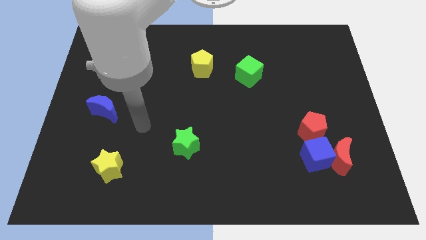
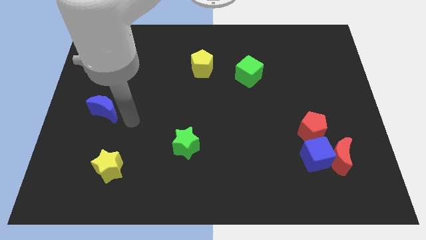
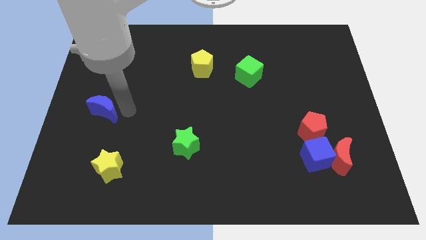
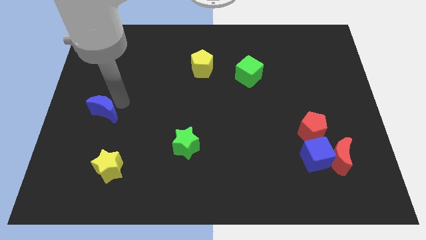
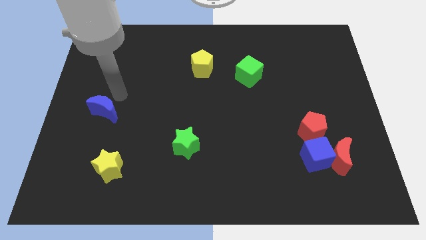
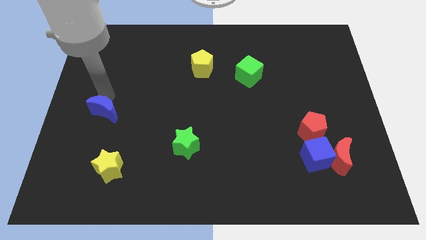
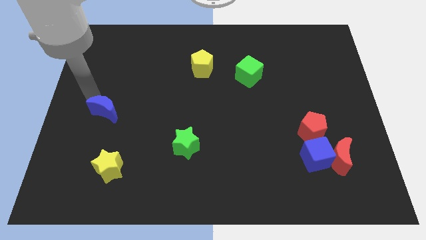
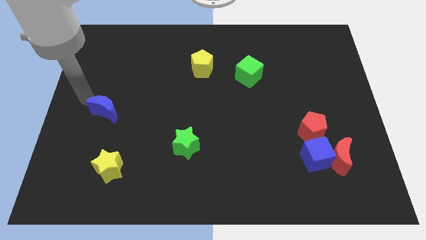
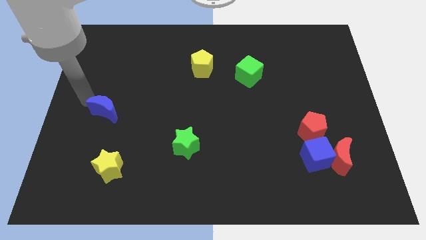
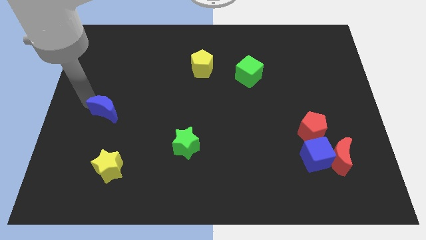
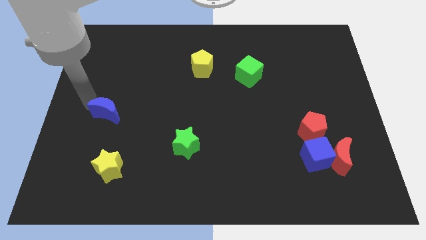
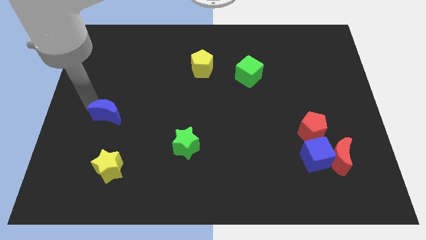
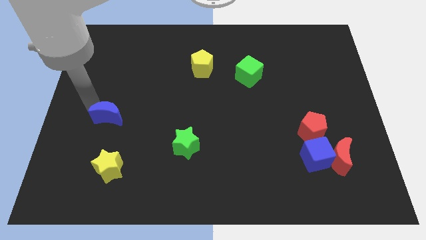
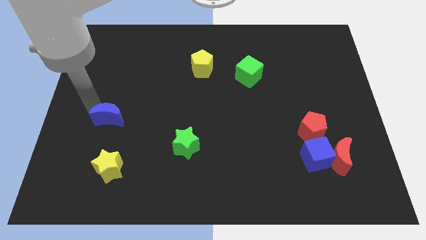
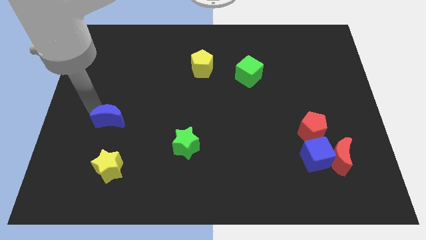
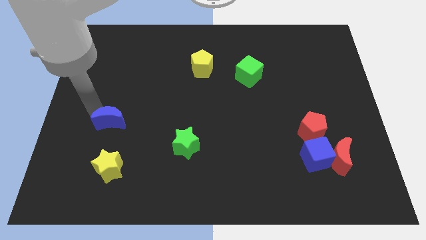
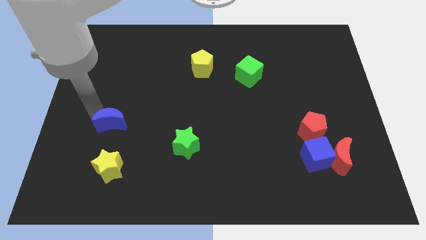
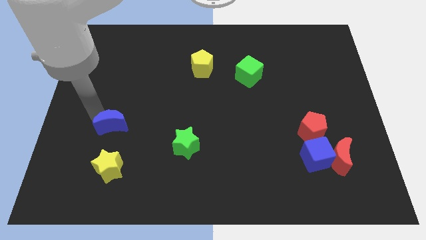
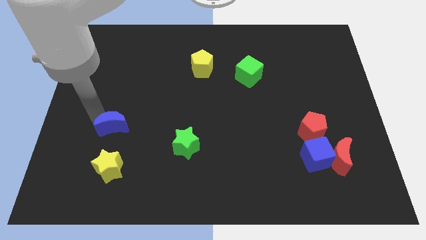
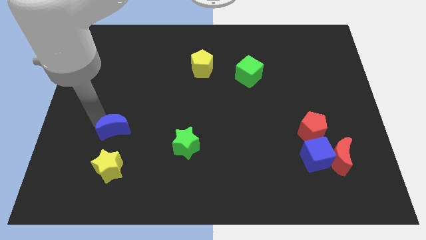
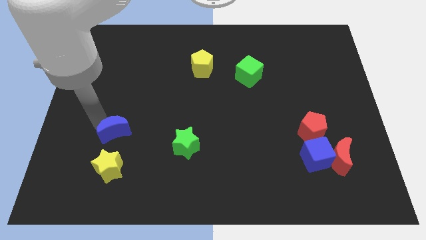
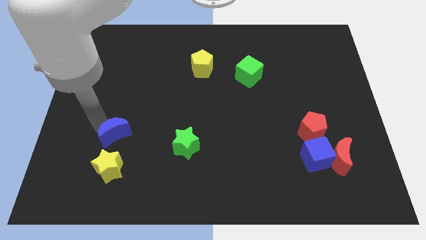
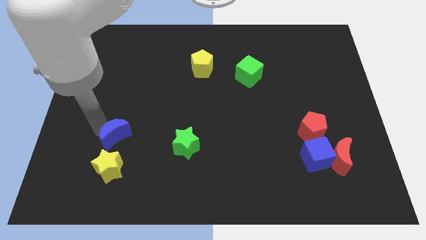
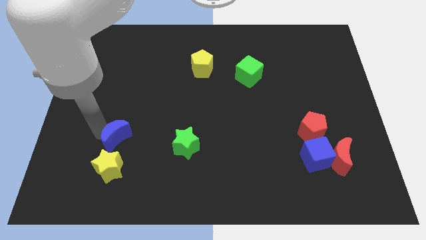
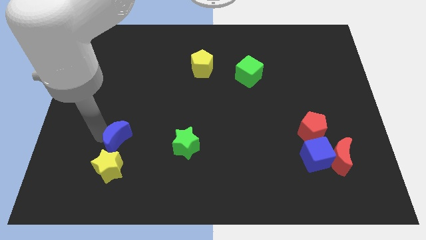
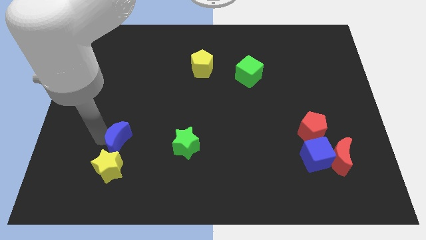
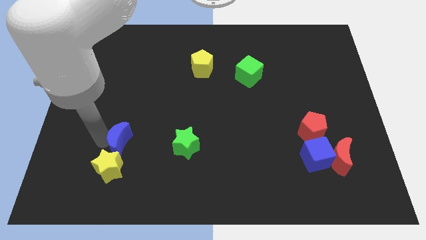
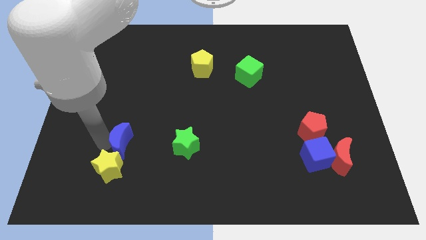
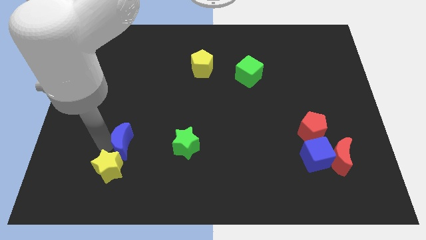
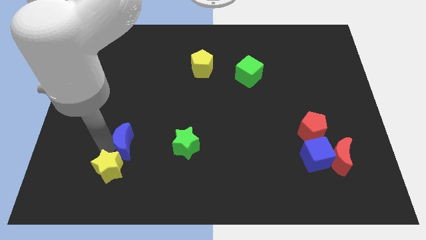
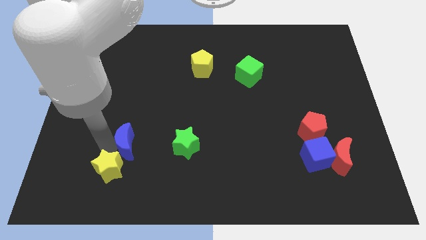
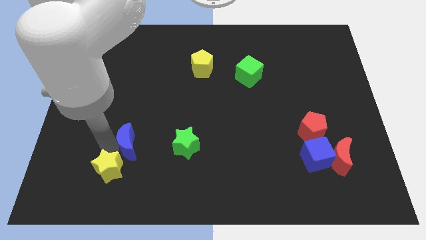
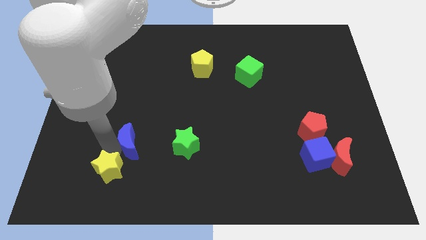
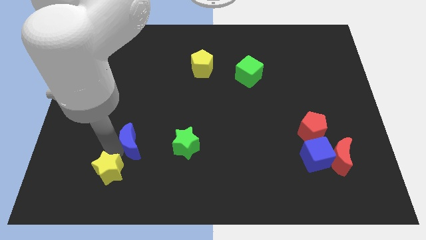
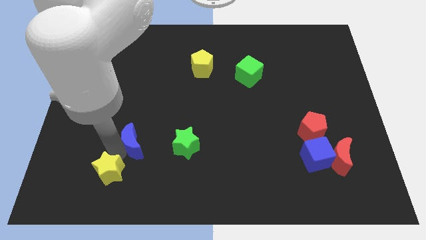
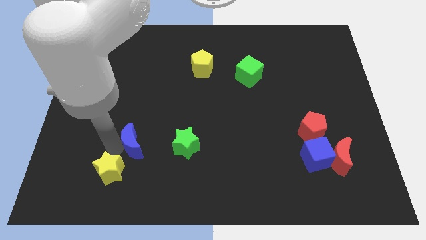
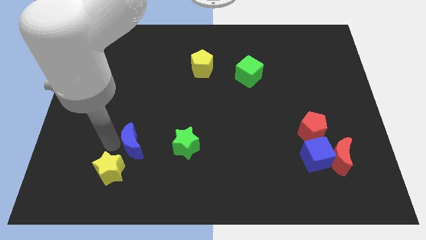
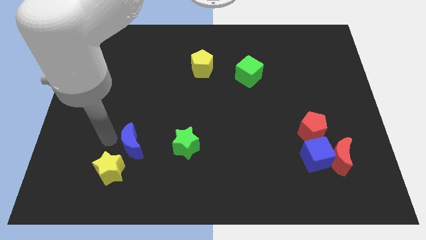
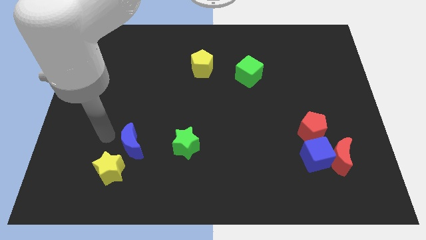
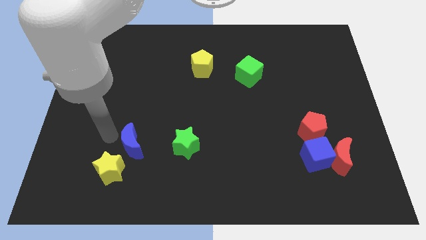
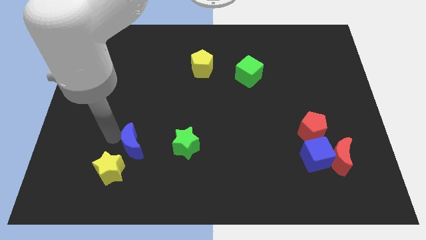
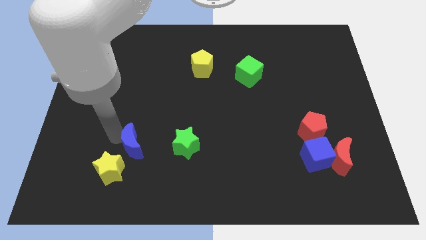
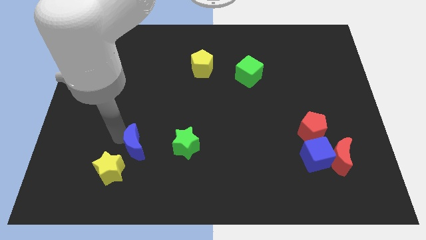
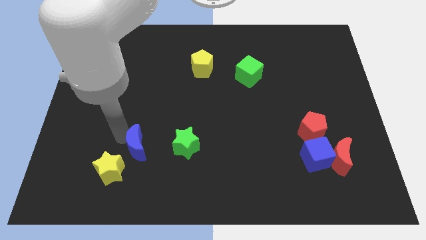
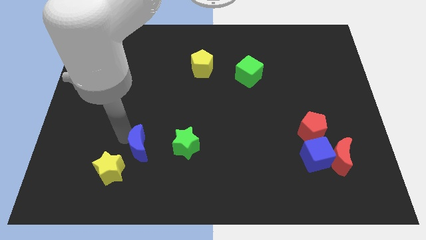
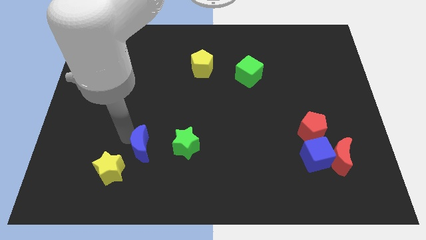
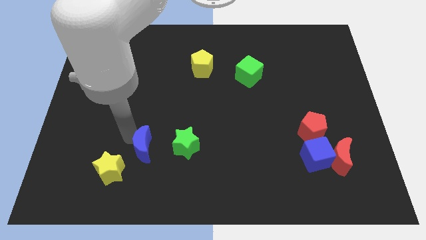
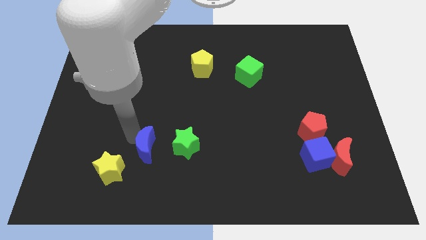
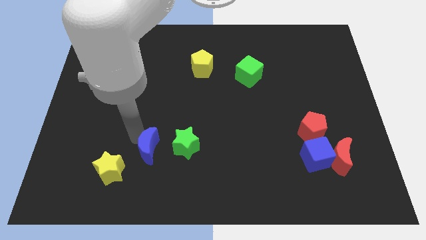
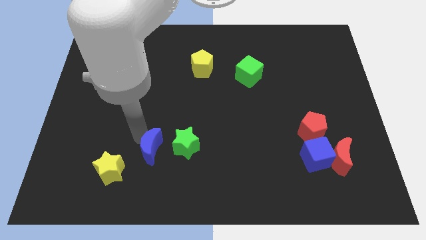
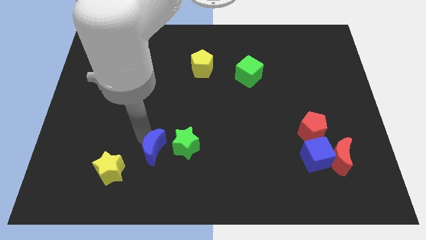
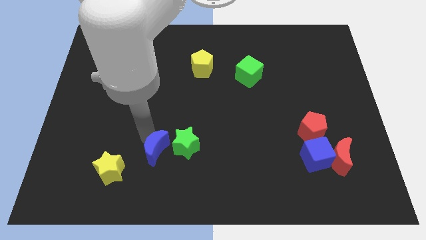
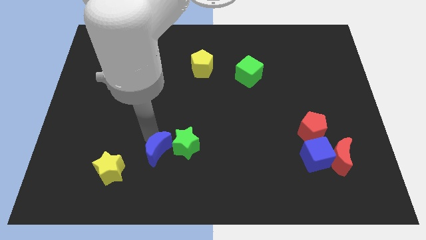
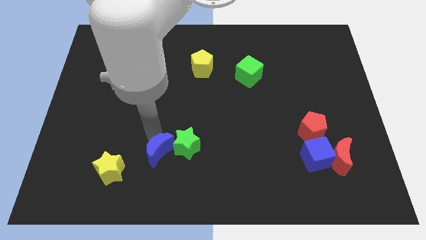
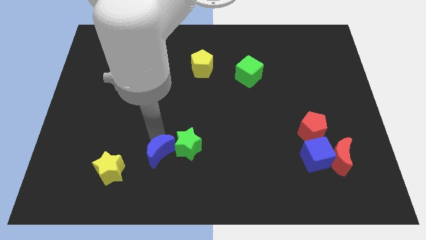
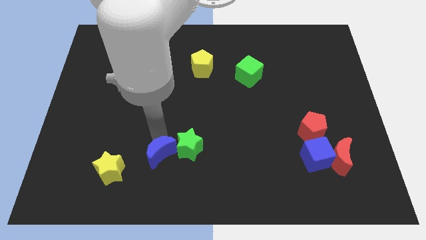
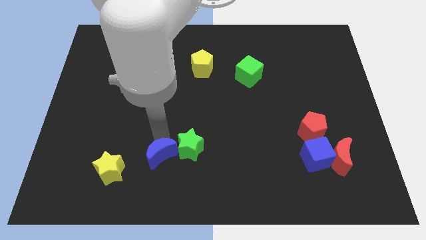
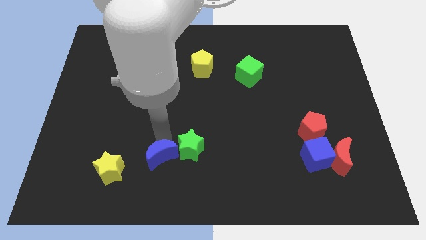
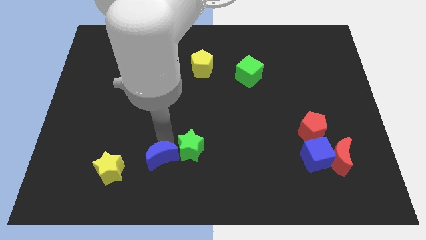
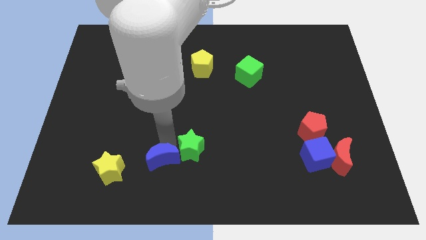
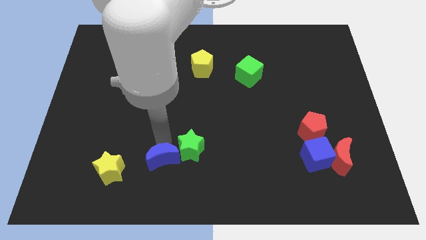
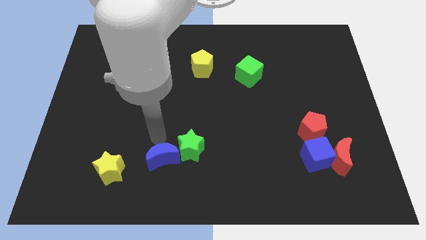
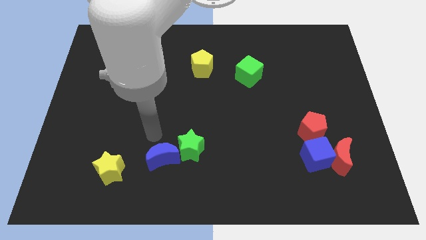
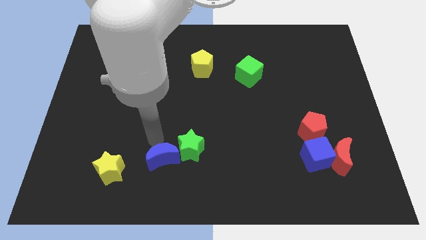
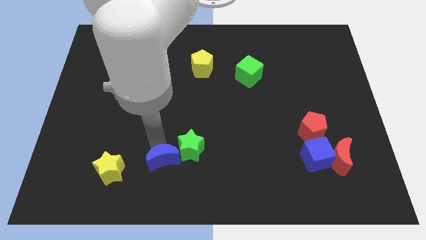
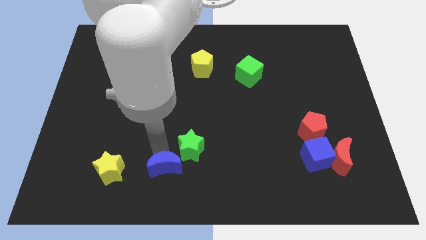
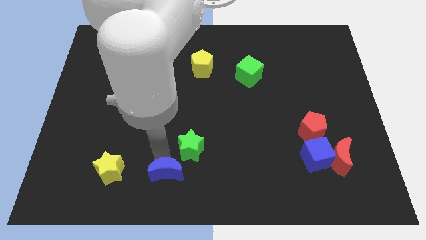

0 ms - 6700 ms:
move the blue moon to the bottom
